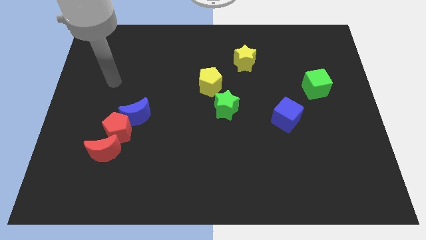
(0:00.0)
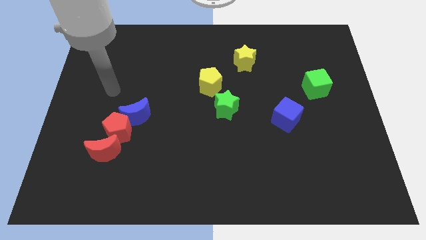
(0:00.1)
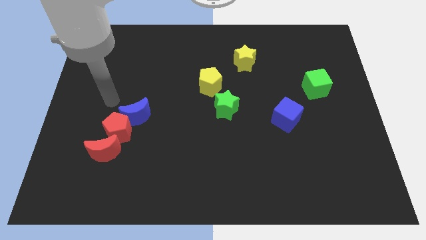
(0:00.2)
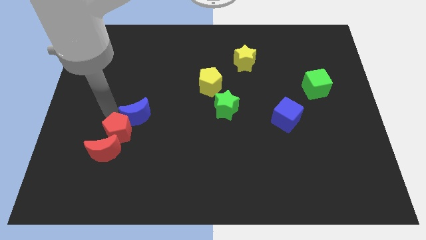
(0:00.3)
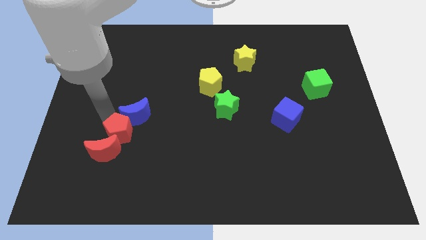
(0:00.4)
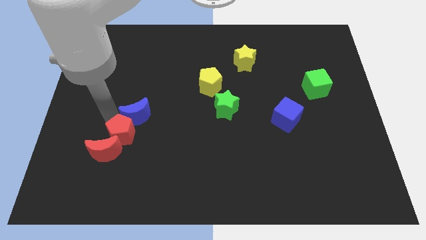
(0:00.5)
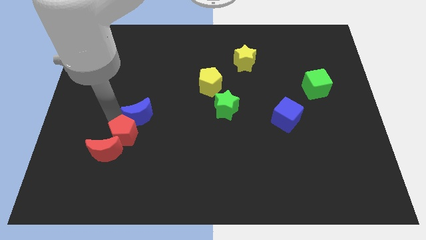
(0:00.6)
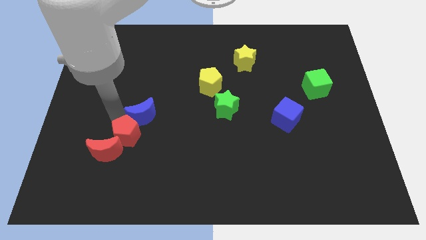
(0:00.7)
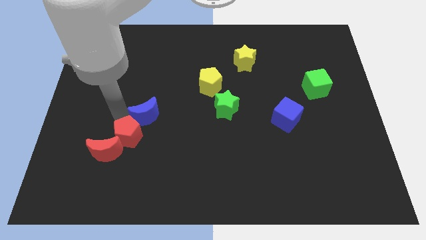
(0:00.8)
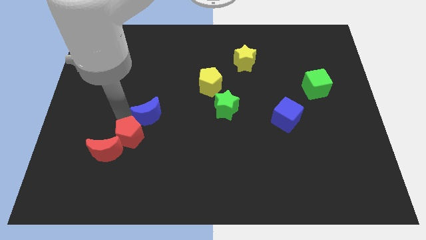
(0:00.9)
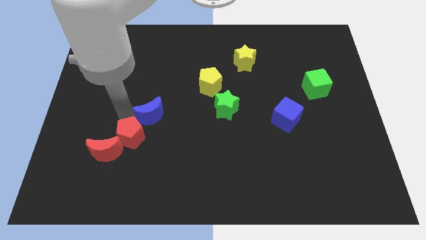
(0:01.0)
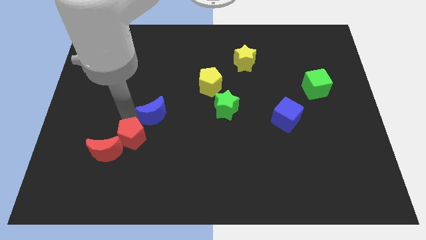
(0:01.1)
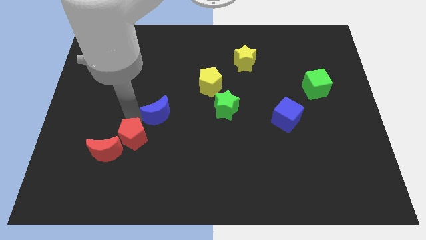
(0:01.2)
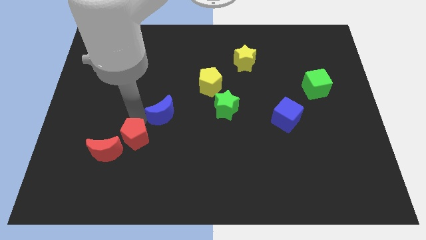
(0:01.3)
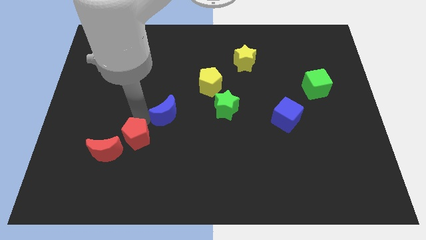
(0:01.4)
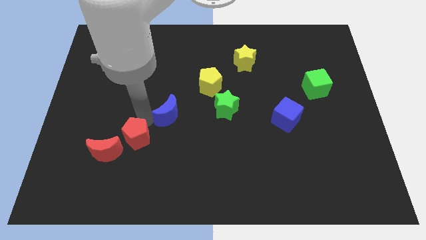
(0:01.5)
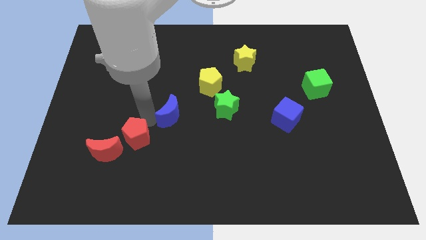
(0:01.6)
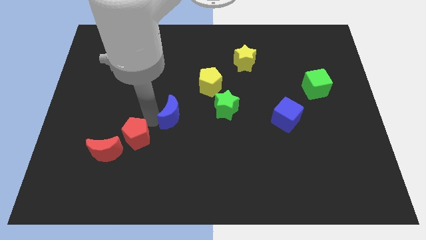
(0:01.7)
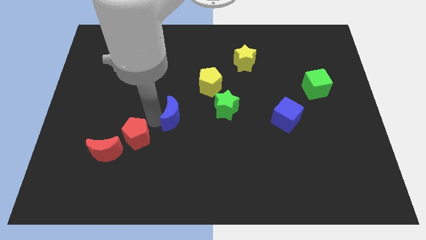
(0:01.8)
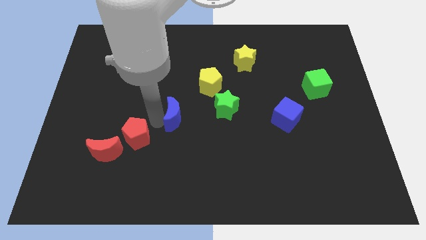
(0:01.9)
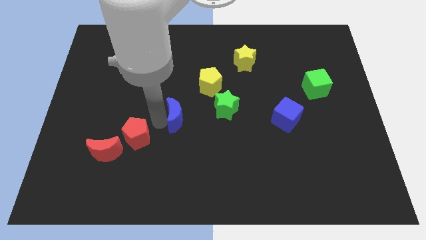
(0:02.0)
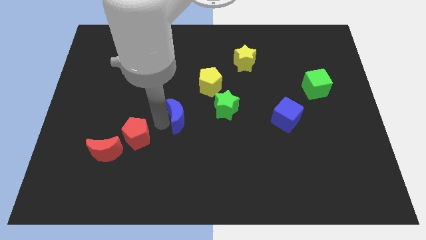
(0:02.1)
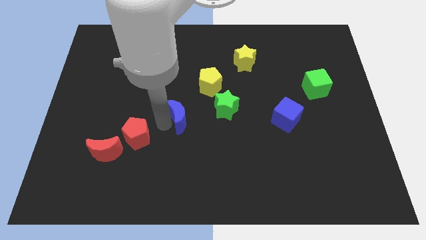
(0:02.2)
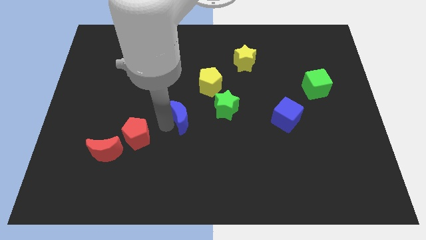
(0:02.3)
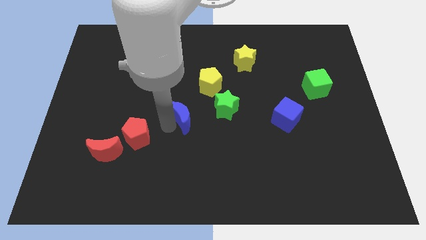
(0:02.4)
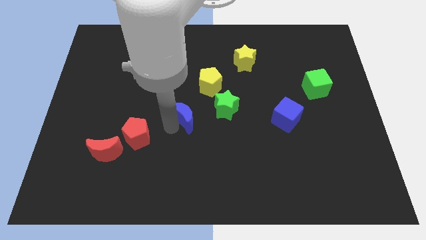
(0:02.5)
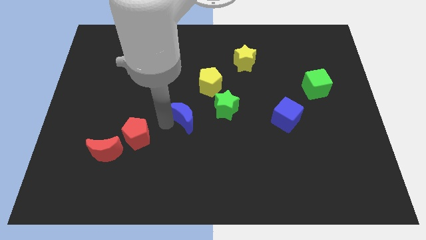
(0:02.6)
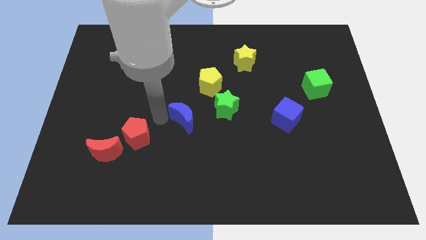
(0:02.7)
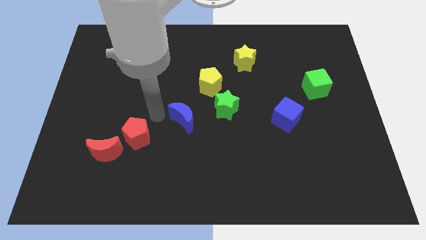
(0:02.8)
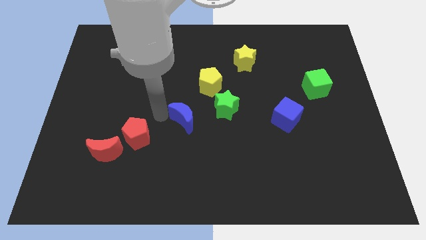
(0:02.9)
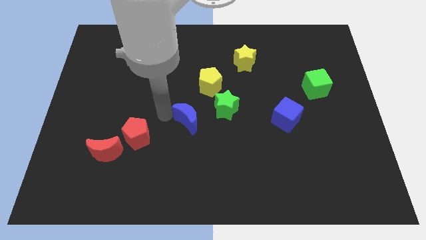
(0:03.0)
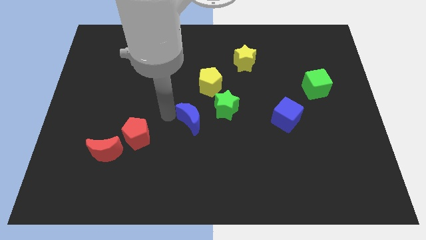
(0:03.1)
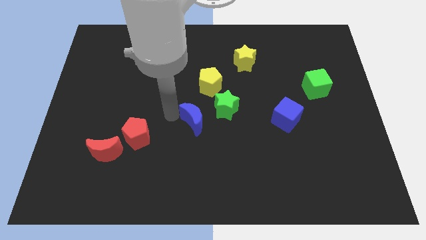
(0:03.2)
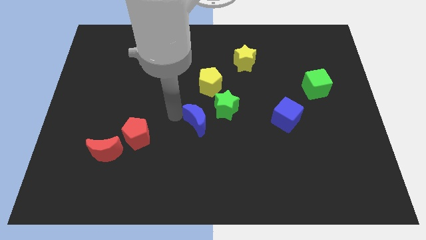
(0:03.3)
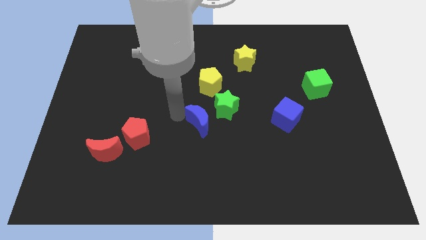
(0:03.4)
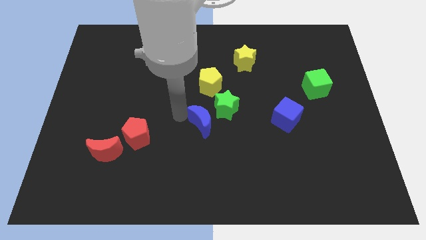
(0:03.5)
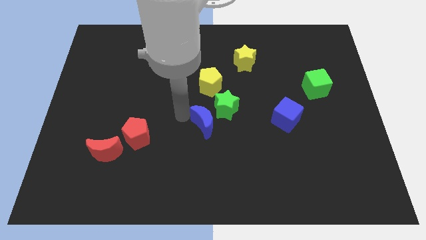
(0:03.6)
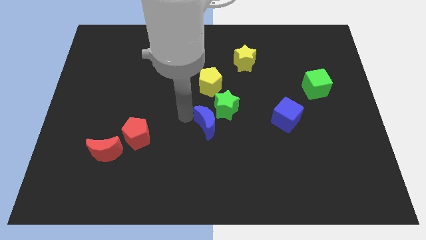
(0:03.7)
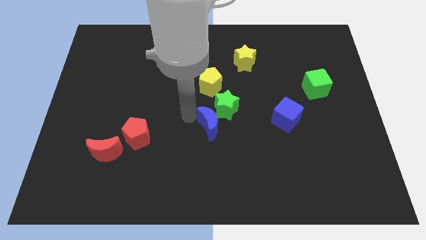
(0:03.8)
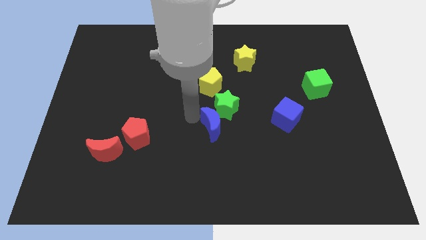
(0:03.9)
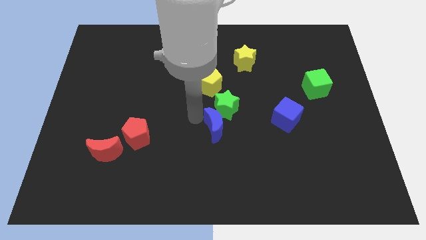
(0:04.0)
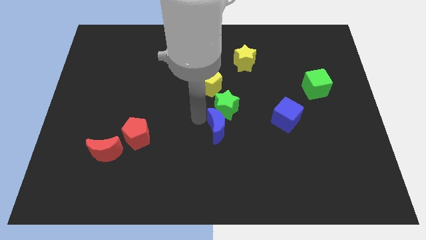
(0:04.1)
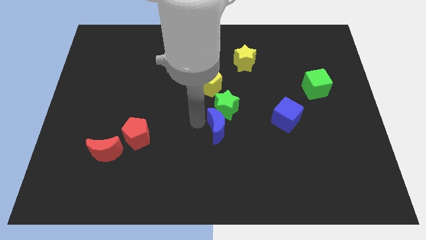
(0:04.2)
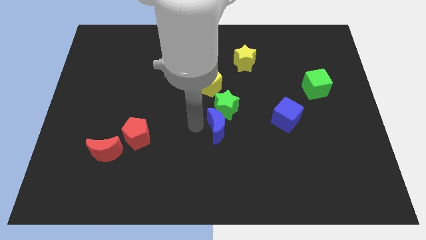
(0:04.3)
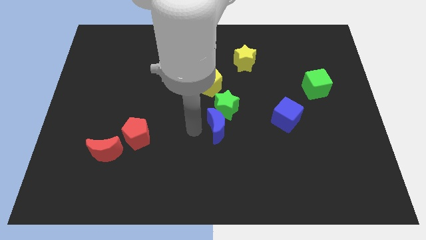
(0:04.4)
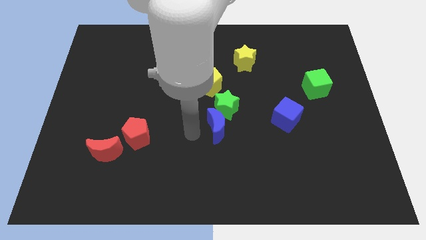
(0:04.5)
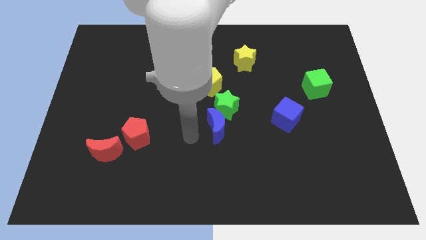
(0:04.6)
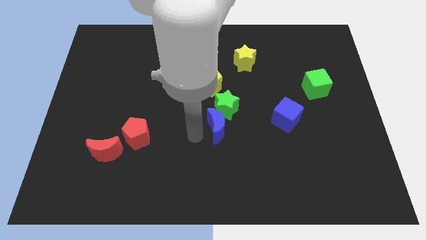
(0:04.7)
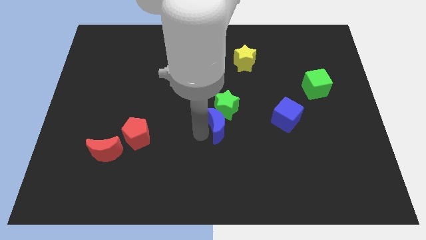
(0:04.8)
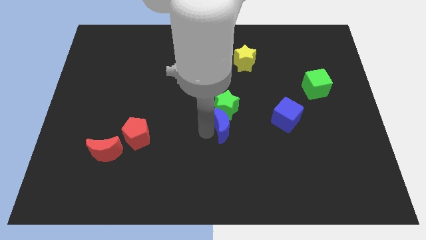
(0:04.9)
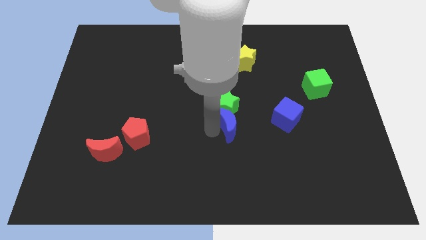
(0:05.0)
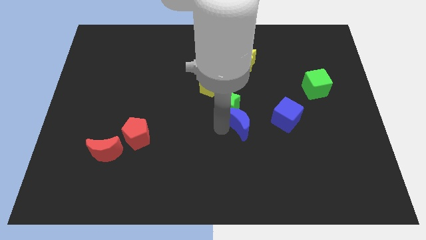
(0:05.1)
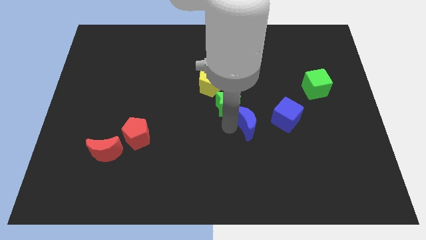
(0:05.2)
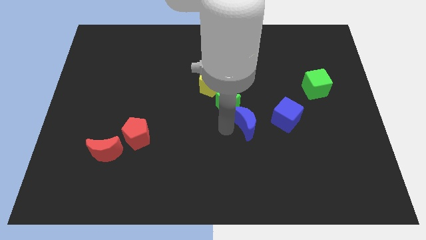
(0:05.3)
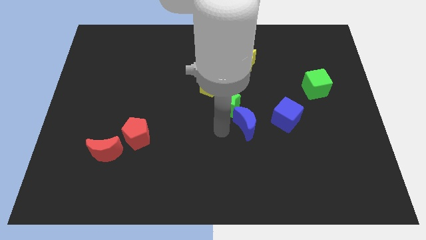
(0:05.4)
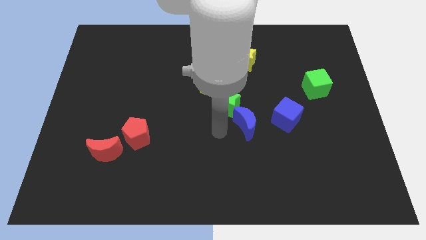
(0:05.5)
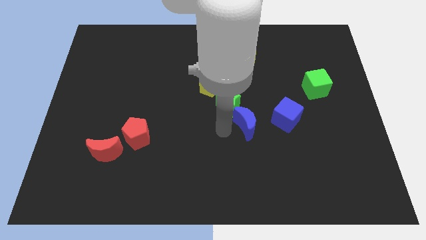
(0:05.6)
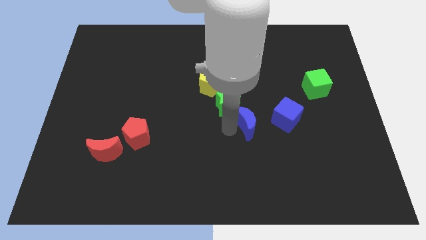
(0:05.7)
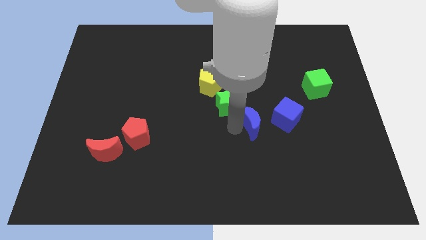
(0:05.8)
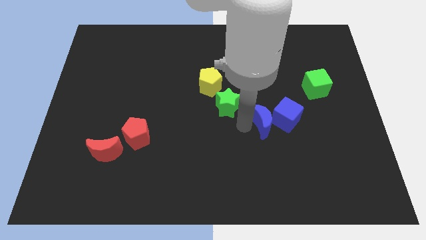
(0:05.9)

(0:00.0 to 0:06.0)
move the blue moon to the blue cube

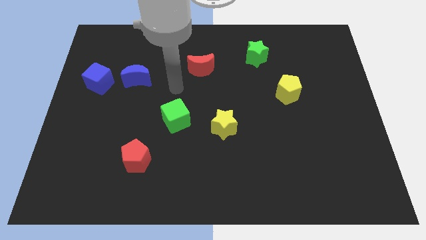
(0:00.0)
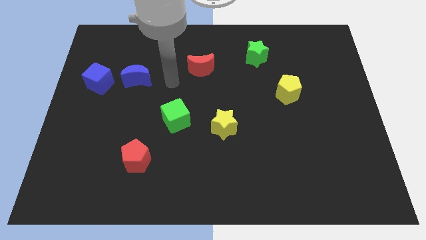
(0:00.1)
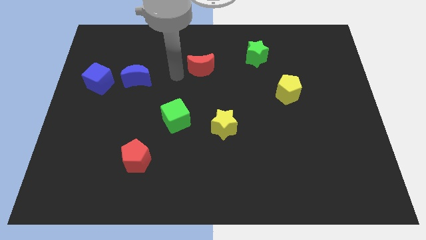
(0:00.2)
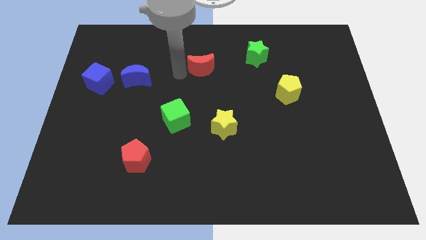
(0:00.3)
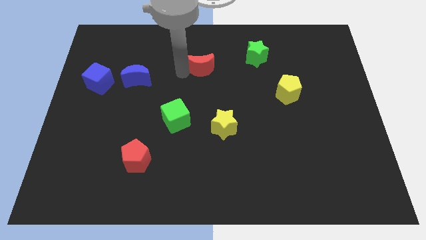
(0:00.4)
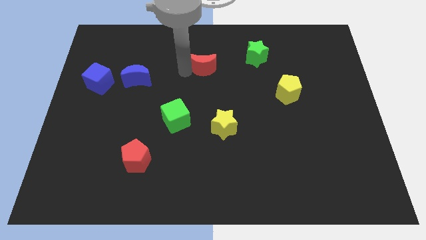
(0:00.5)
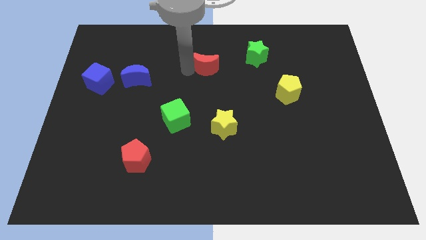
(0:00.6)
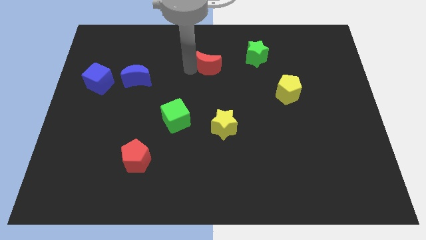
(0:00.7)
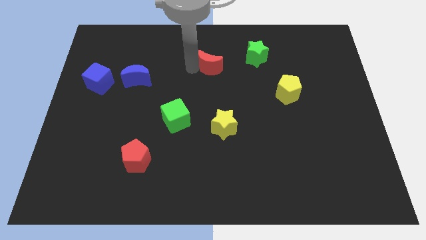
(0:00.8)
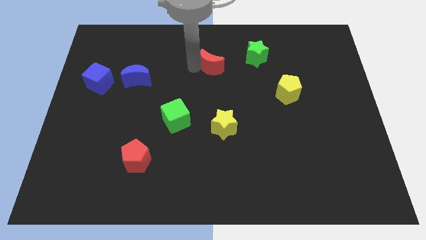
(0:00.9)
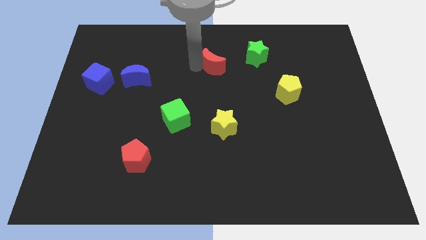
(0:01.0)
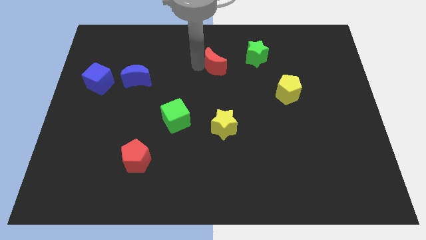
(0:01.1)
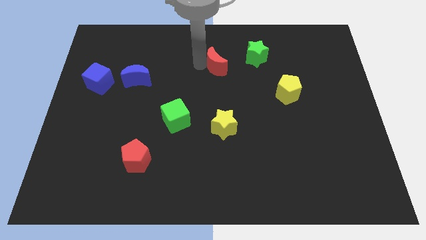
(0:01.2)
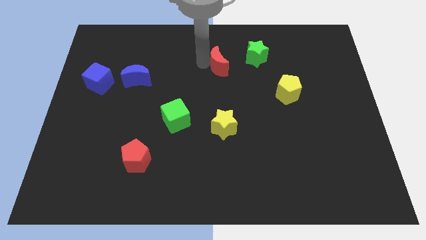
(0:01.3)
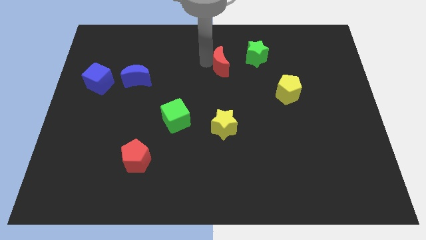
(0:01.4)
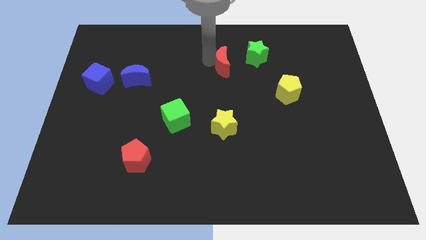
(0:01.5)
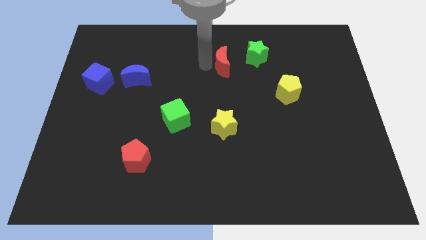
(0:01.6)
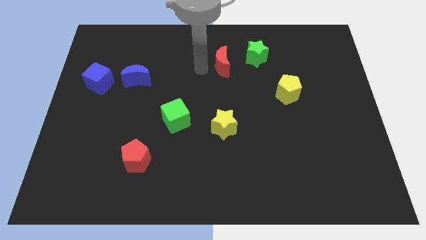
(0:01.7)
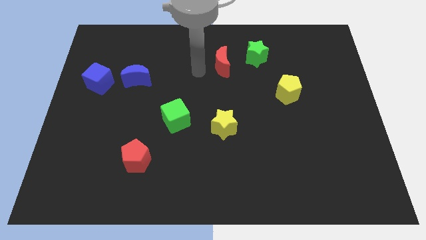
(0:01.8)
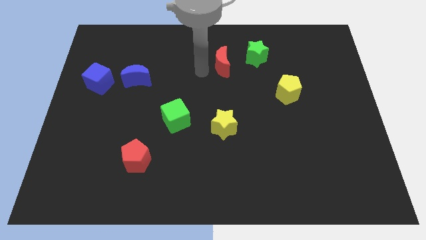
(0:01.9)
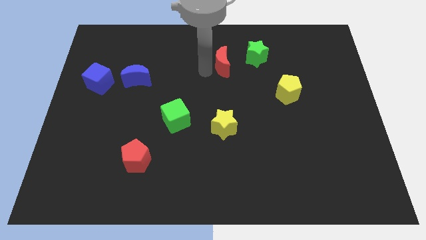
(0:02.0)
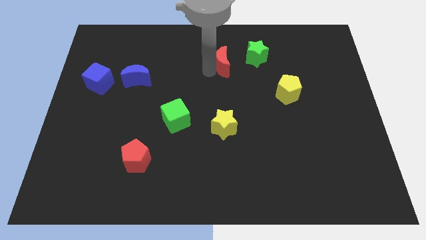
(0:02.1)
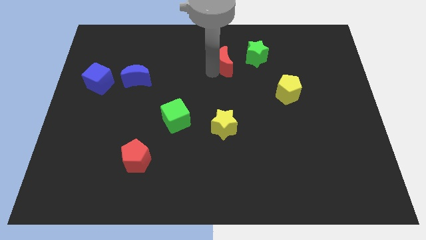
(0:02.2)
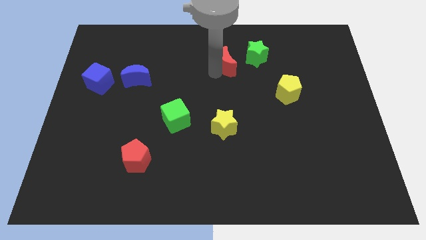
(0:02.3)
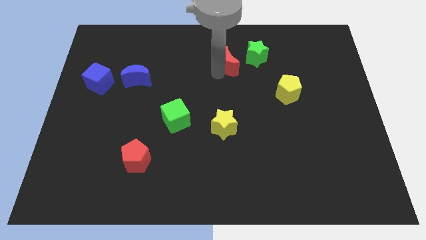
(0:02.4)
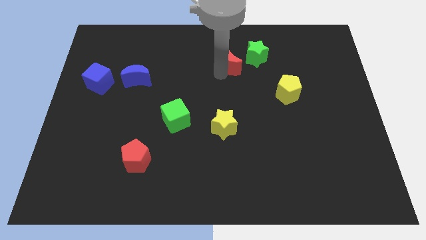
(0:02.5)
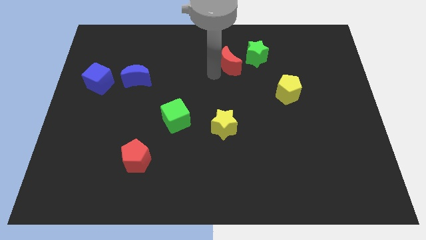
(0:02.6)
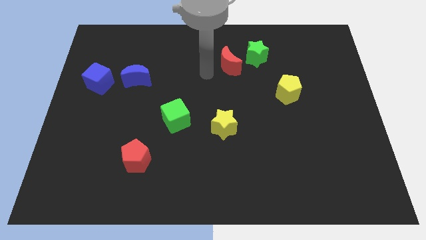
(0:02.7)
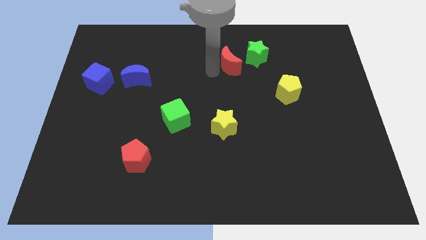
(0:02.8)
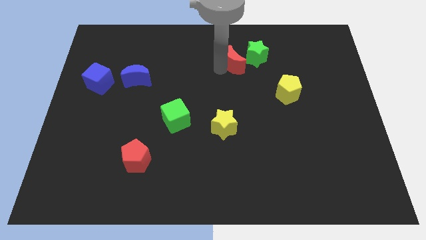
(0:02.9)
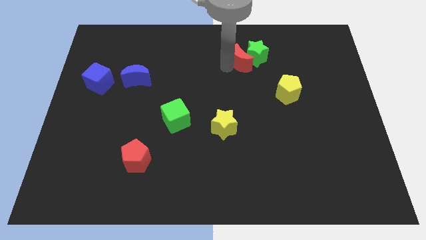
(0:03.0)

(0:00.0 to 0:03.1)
slide the red moon to the green star
